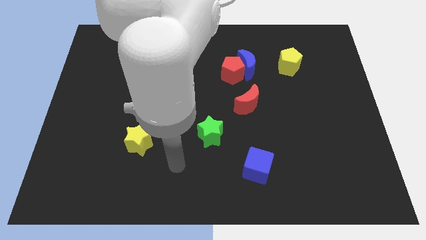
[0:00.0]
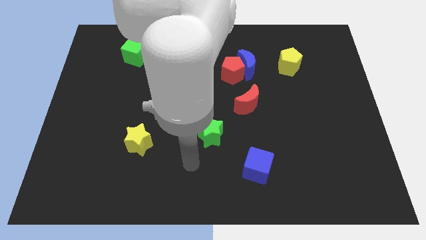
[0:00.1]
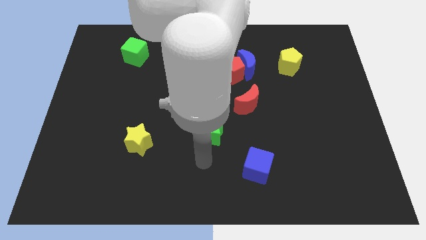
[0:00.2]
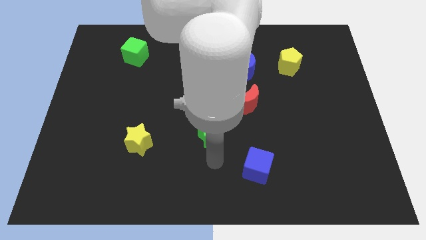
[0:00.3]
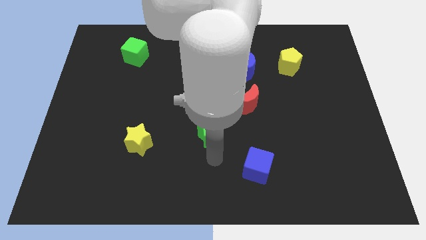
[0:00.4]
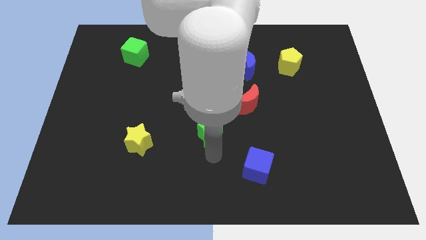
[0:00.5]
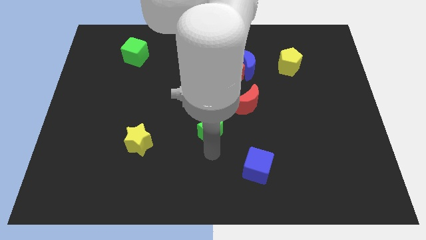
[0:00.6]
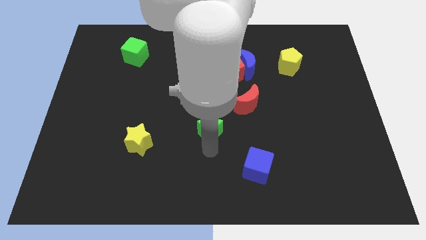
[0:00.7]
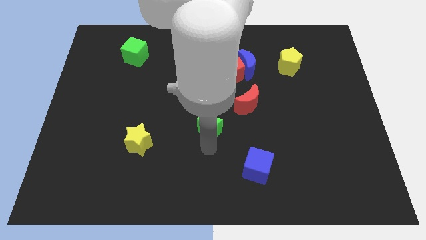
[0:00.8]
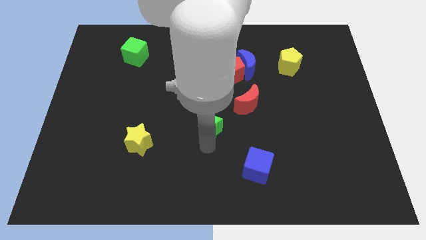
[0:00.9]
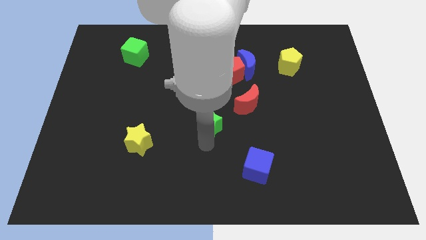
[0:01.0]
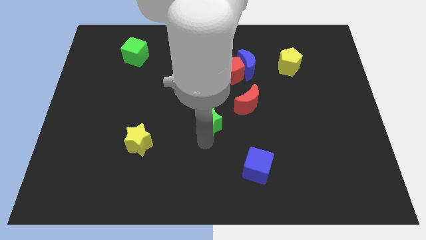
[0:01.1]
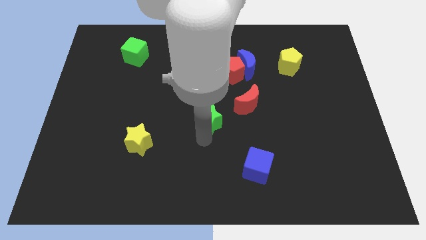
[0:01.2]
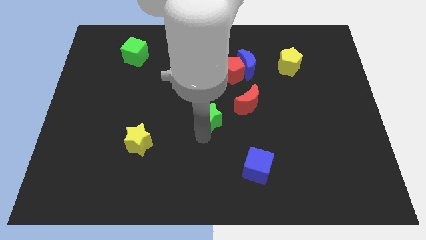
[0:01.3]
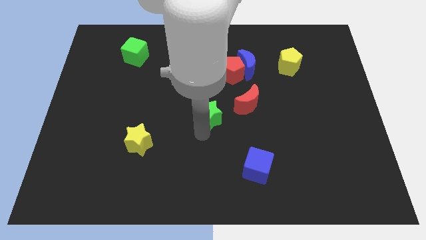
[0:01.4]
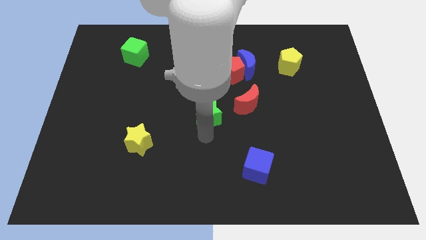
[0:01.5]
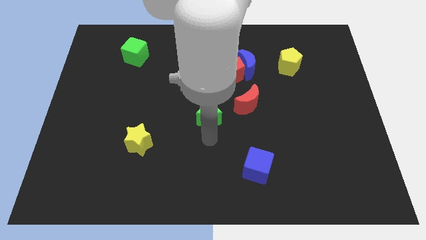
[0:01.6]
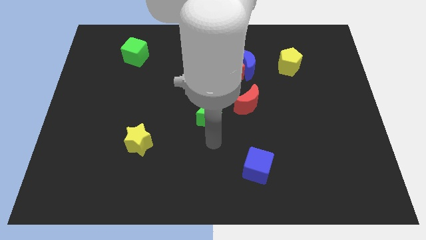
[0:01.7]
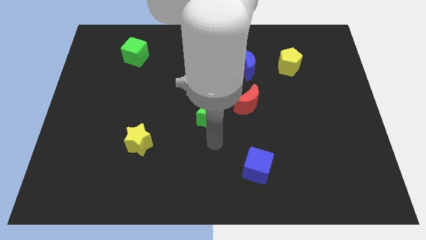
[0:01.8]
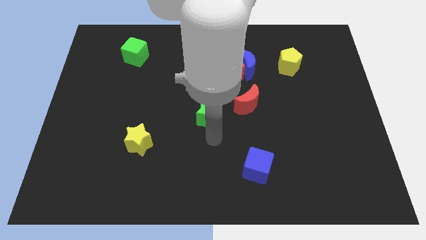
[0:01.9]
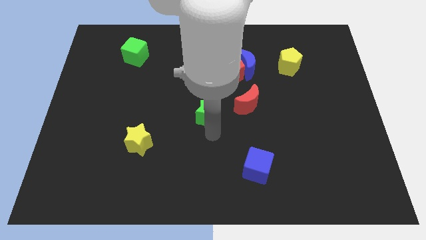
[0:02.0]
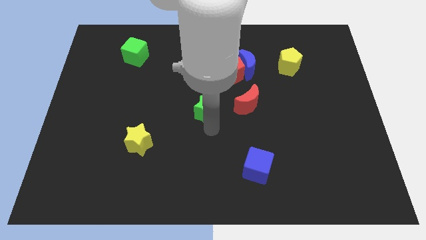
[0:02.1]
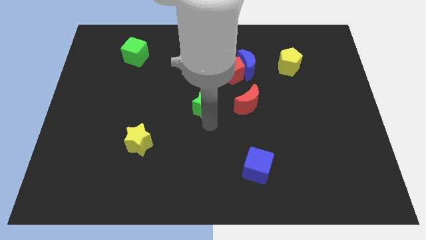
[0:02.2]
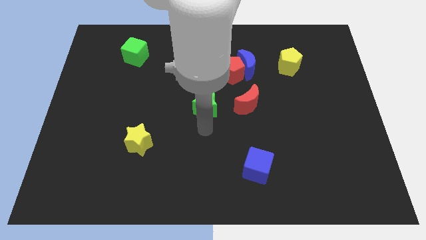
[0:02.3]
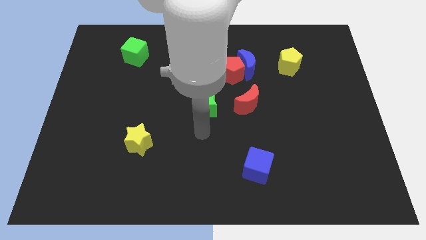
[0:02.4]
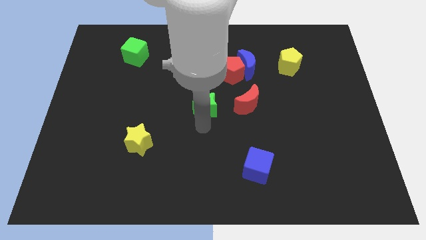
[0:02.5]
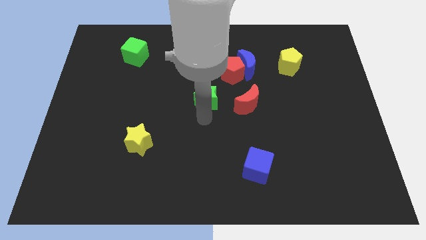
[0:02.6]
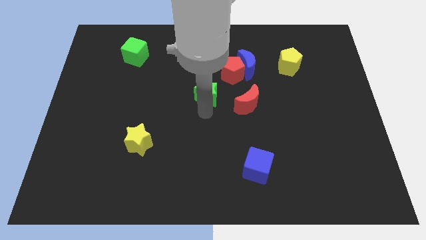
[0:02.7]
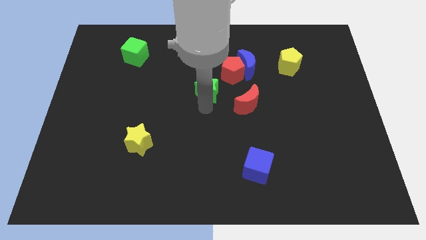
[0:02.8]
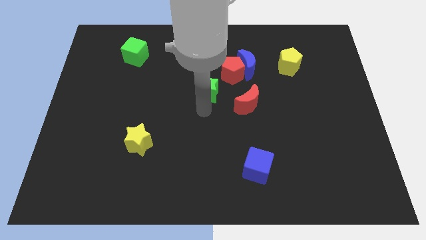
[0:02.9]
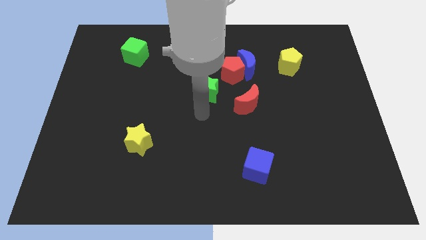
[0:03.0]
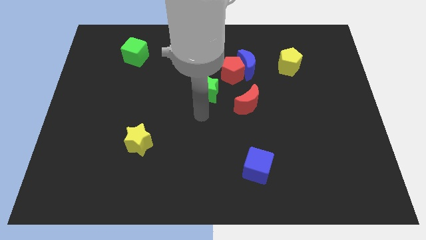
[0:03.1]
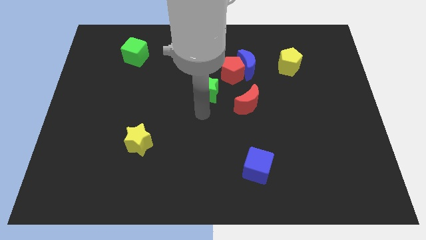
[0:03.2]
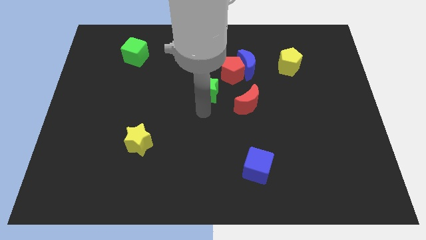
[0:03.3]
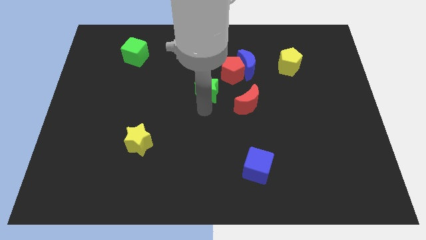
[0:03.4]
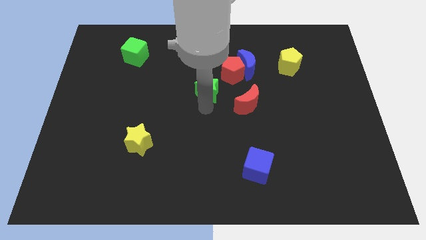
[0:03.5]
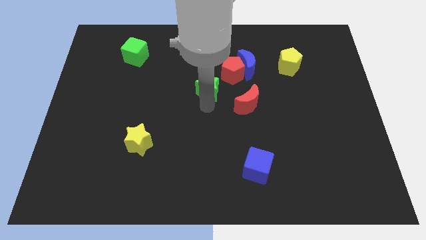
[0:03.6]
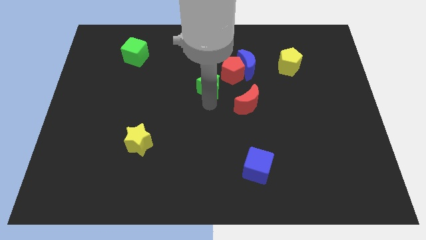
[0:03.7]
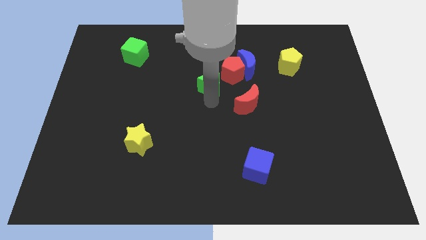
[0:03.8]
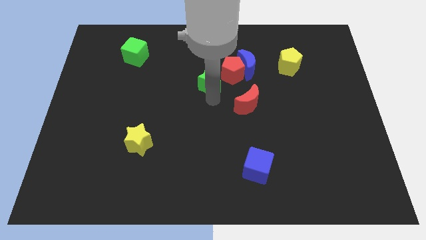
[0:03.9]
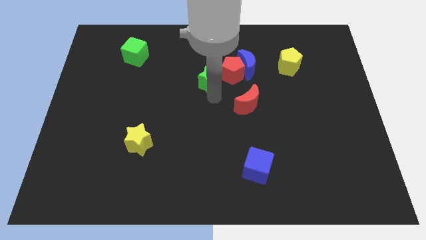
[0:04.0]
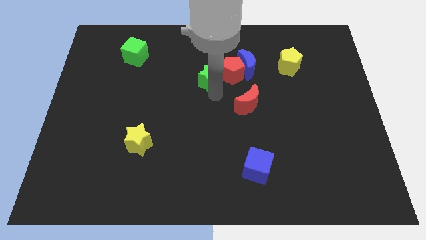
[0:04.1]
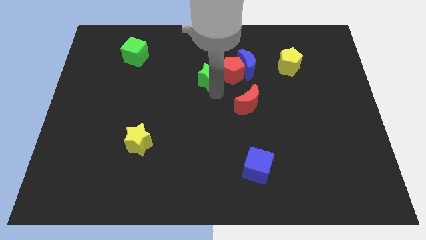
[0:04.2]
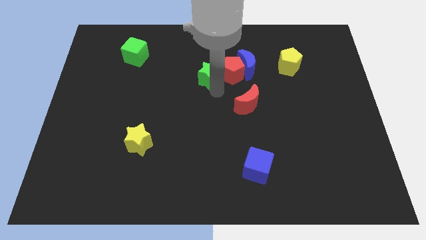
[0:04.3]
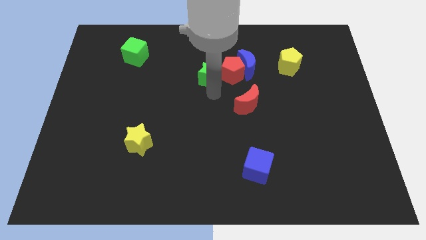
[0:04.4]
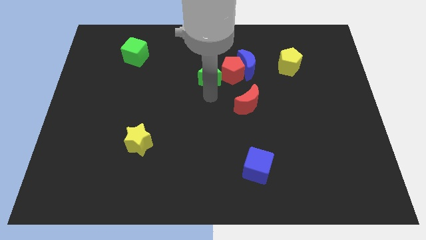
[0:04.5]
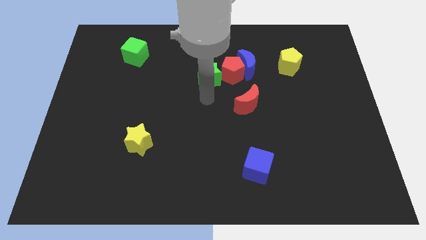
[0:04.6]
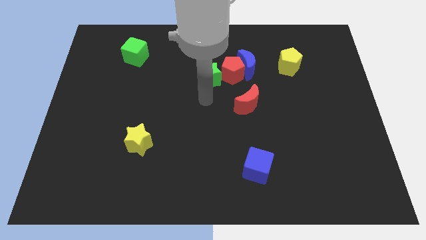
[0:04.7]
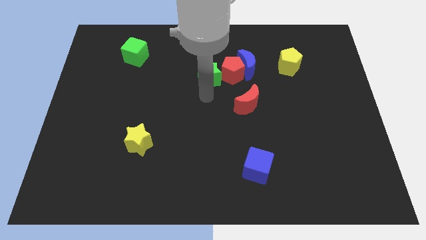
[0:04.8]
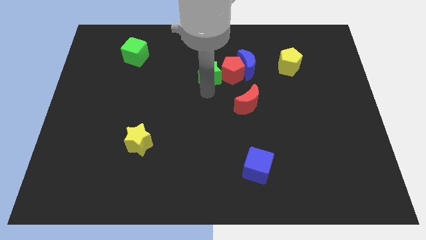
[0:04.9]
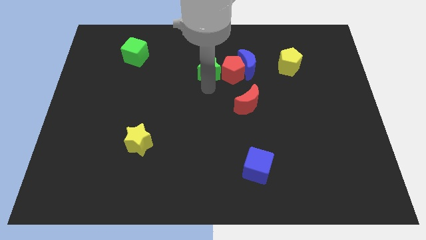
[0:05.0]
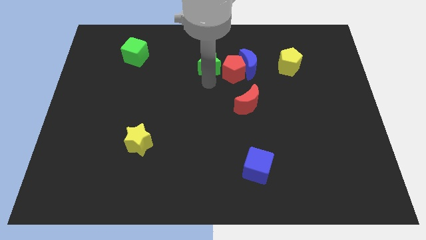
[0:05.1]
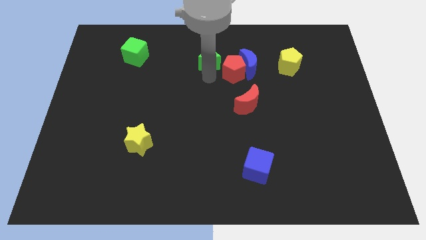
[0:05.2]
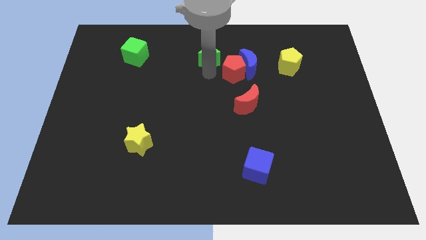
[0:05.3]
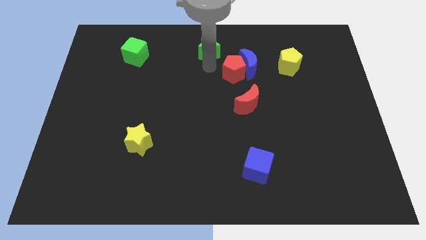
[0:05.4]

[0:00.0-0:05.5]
push the green star to the towards your base

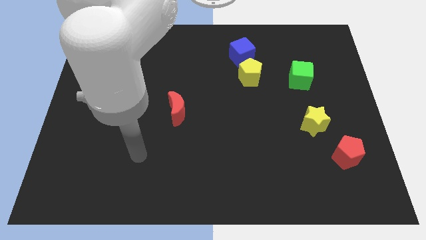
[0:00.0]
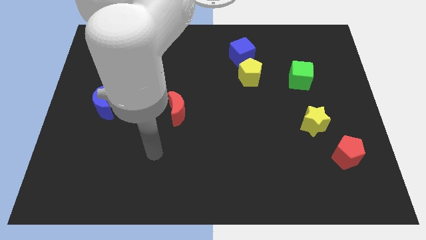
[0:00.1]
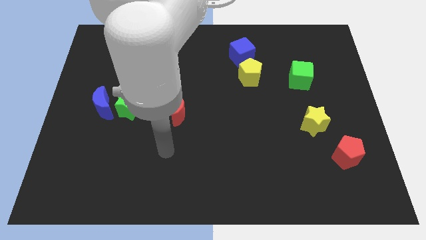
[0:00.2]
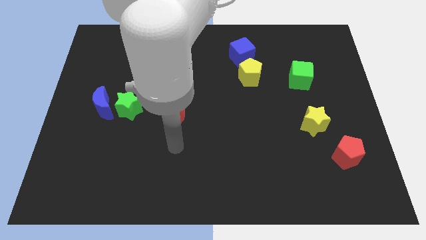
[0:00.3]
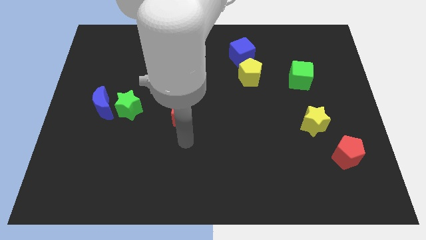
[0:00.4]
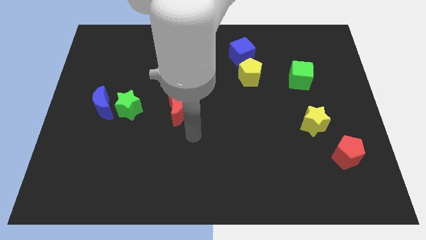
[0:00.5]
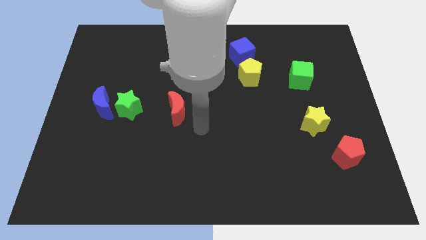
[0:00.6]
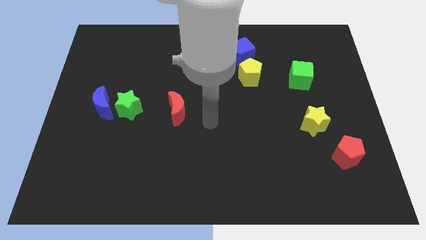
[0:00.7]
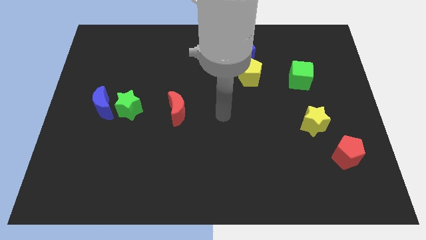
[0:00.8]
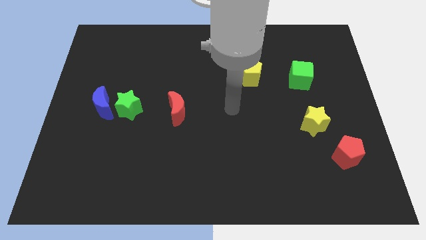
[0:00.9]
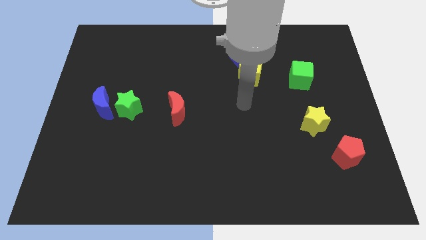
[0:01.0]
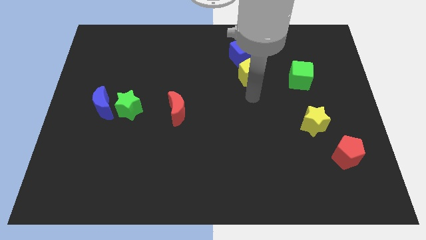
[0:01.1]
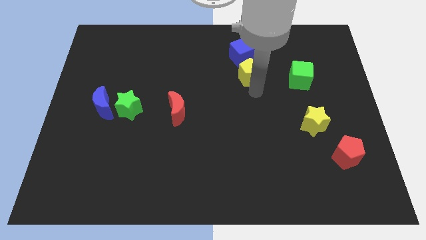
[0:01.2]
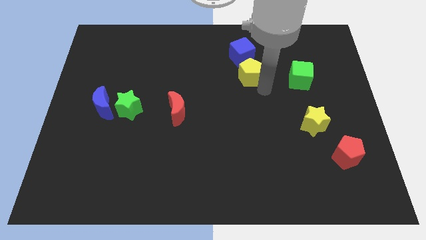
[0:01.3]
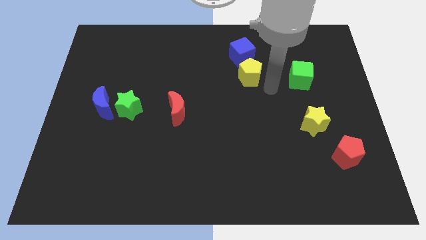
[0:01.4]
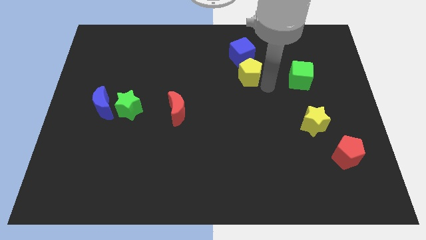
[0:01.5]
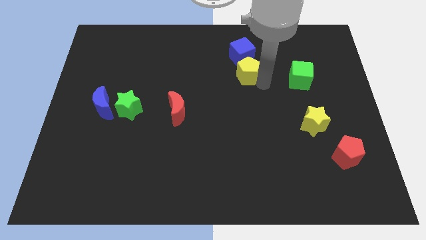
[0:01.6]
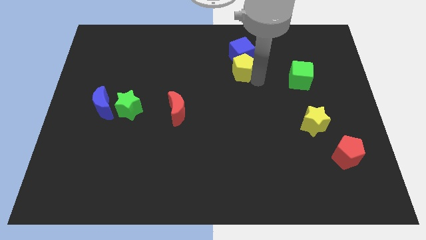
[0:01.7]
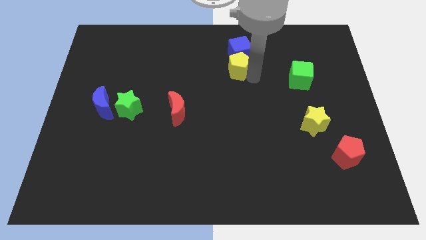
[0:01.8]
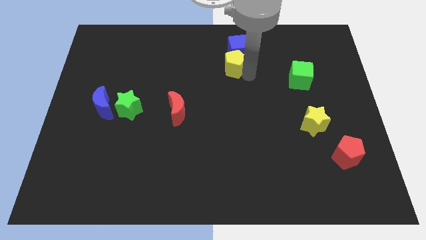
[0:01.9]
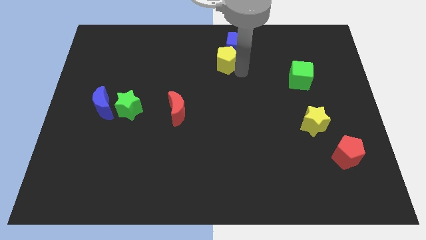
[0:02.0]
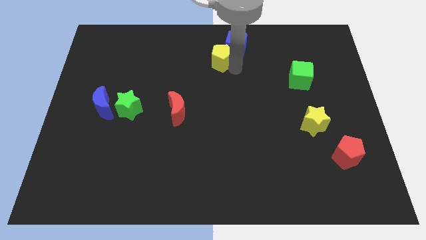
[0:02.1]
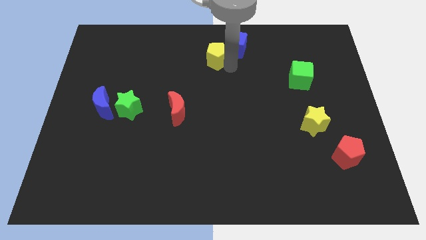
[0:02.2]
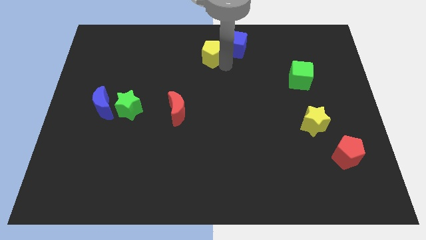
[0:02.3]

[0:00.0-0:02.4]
slide the yellow pentagon to the towards your base
